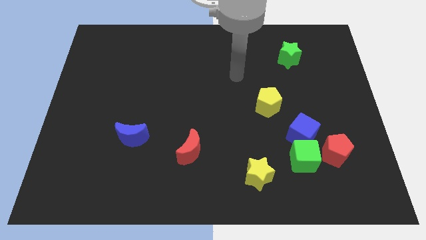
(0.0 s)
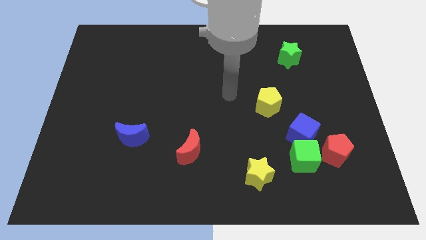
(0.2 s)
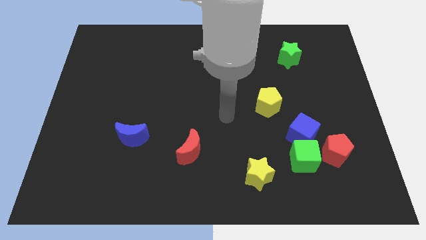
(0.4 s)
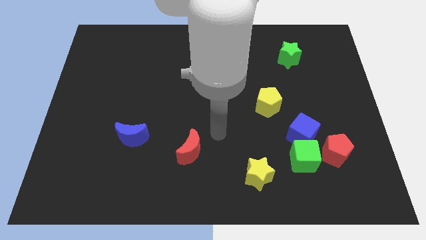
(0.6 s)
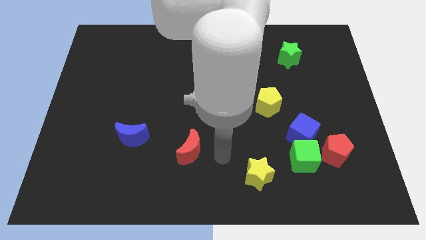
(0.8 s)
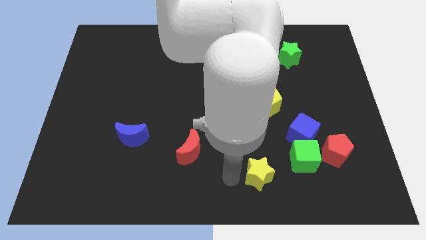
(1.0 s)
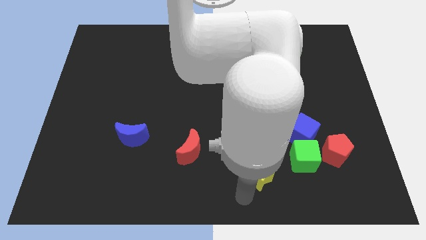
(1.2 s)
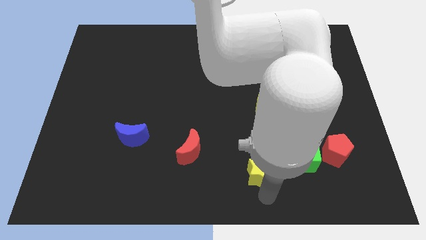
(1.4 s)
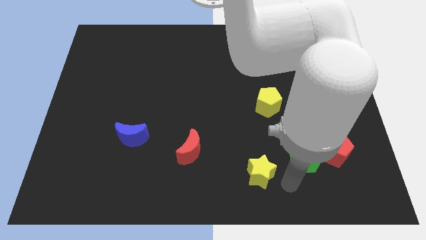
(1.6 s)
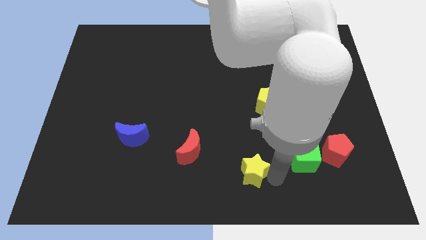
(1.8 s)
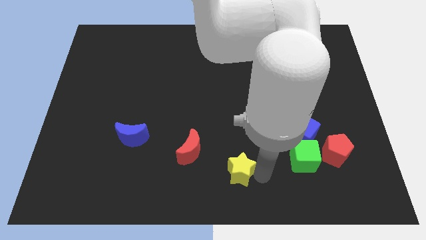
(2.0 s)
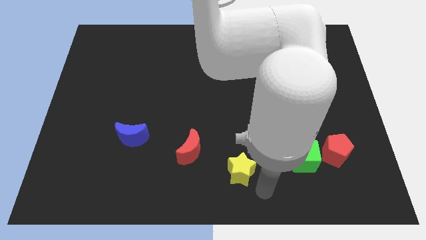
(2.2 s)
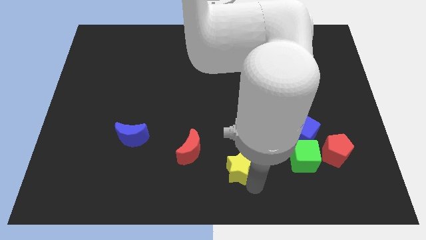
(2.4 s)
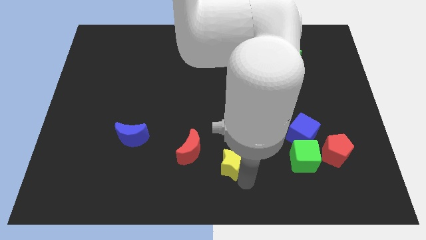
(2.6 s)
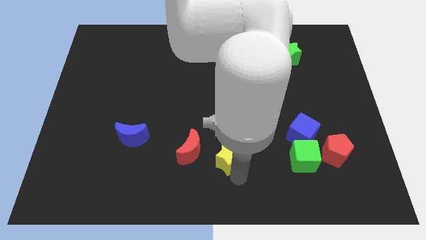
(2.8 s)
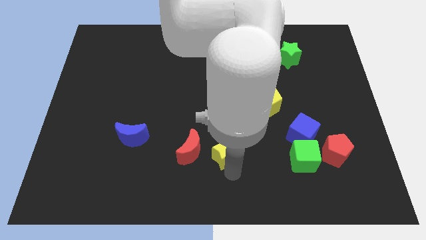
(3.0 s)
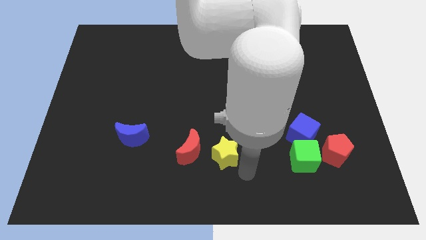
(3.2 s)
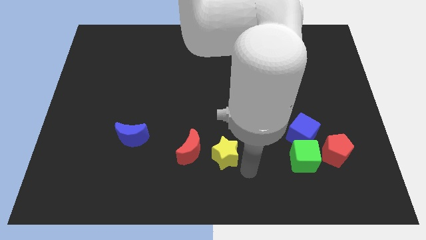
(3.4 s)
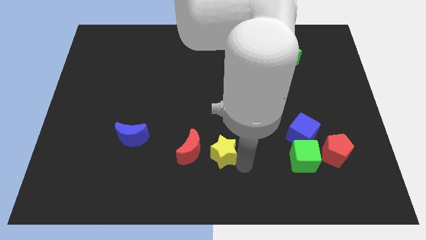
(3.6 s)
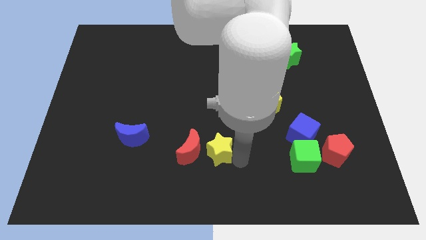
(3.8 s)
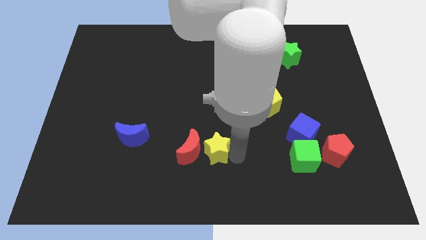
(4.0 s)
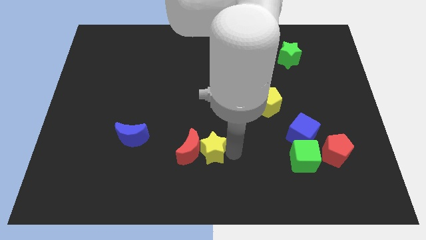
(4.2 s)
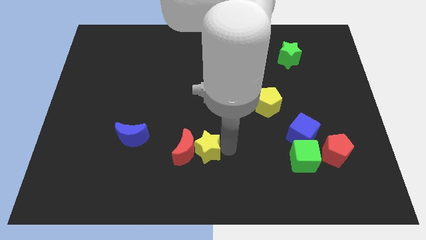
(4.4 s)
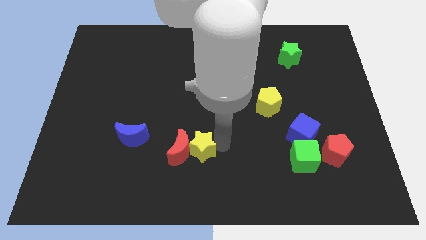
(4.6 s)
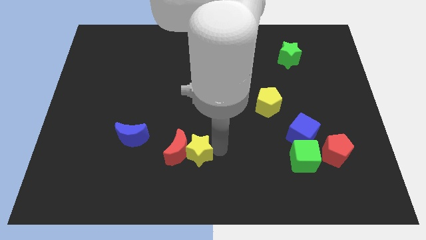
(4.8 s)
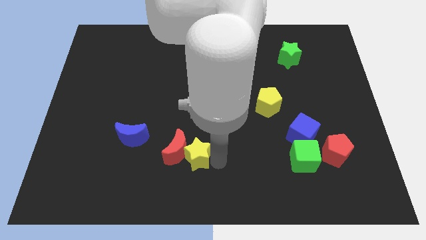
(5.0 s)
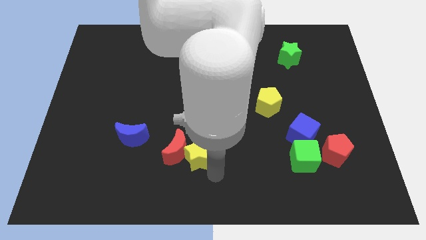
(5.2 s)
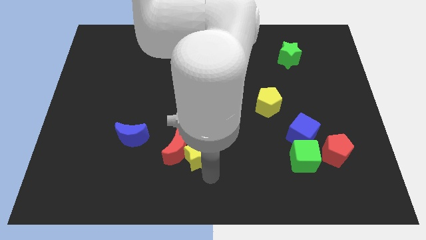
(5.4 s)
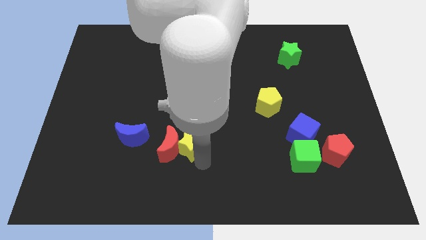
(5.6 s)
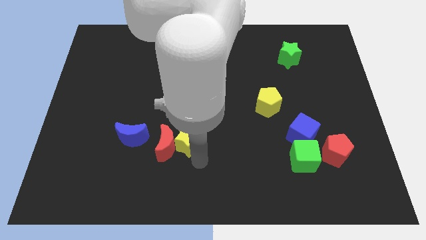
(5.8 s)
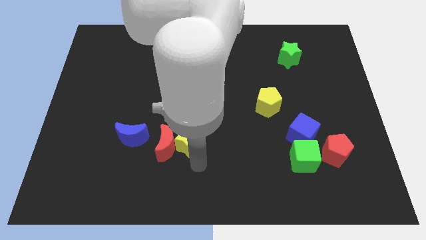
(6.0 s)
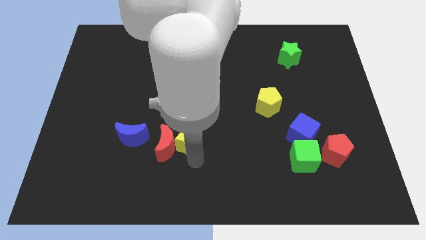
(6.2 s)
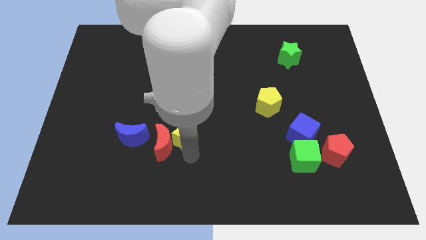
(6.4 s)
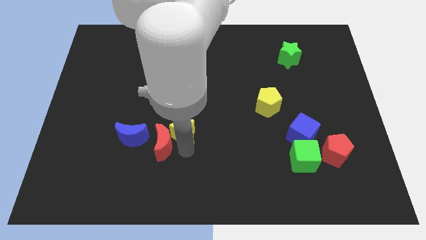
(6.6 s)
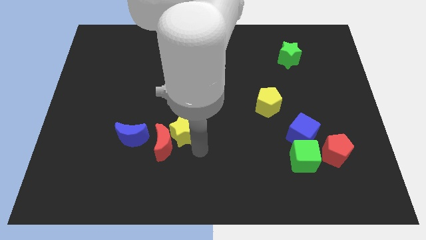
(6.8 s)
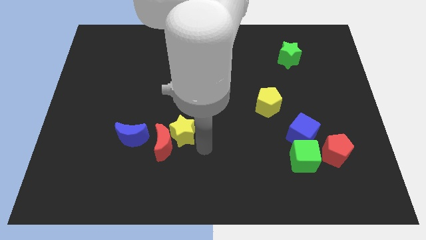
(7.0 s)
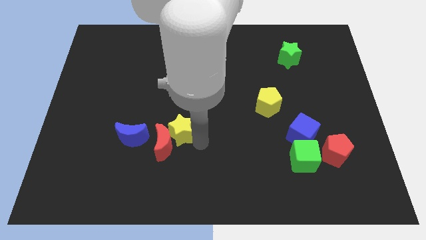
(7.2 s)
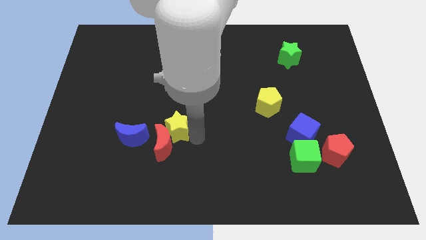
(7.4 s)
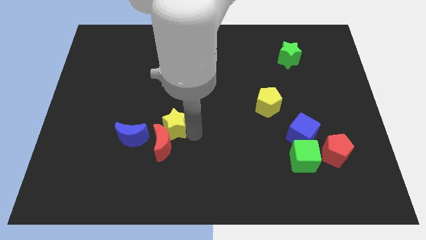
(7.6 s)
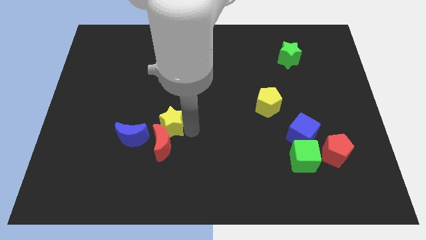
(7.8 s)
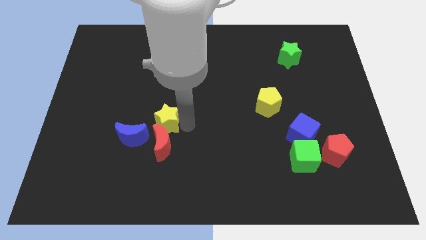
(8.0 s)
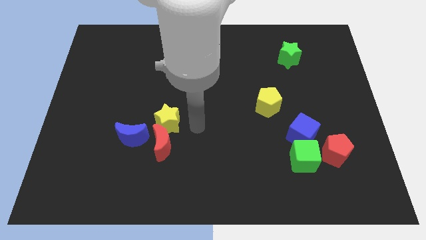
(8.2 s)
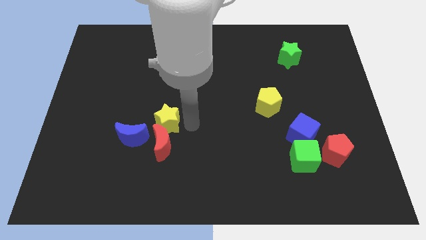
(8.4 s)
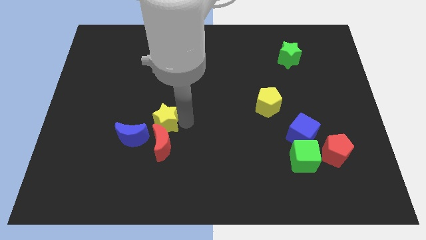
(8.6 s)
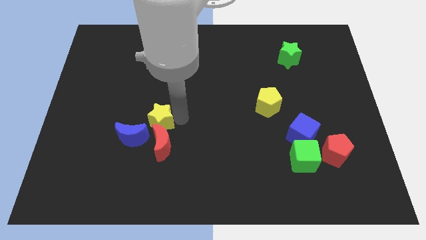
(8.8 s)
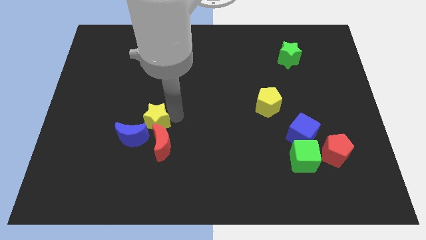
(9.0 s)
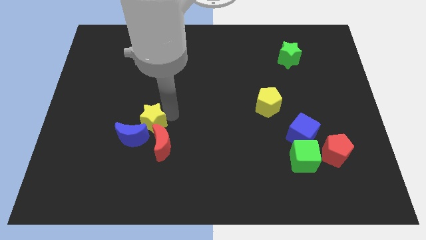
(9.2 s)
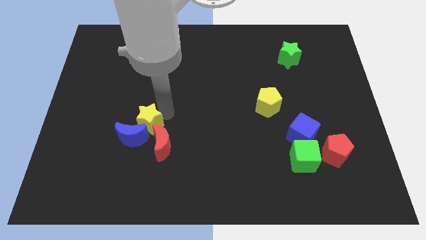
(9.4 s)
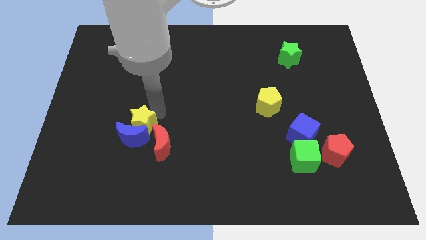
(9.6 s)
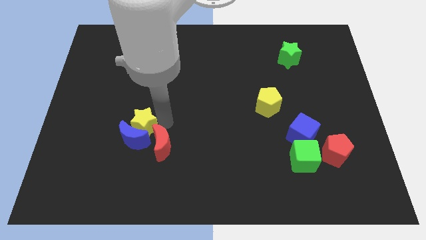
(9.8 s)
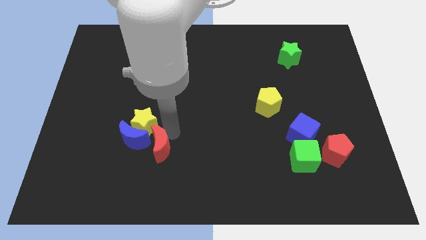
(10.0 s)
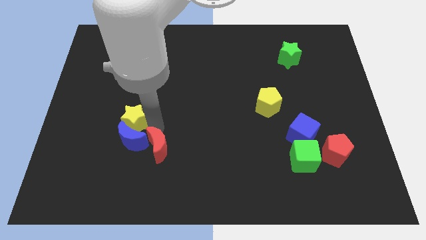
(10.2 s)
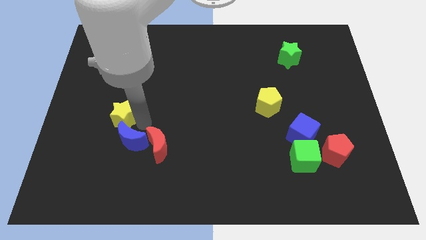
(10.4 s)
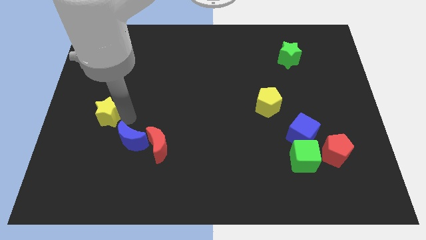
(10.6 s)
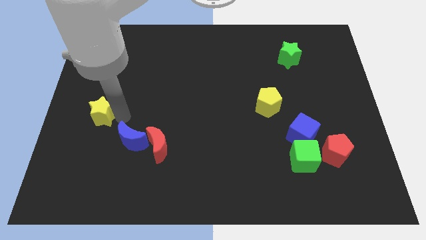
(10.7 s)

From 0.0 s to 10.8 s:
move the yellow star to the left side

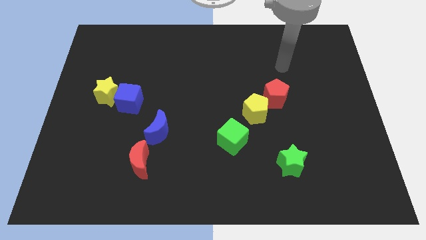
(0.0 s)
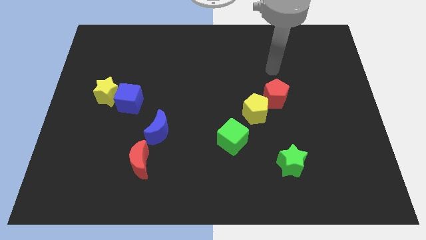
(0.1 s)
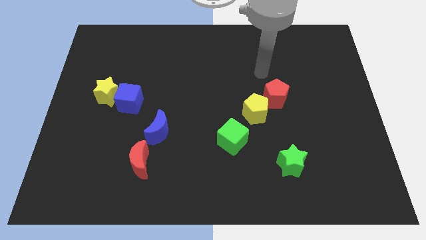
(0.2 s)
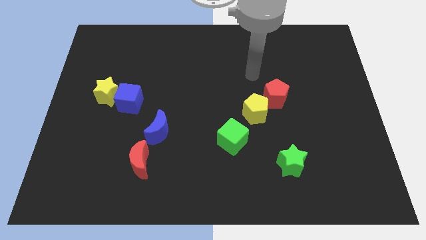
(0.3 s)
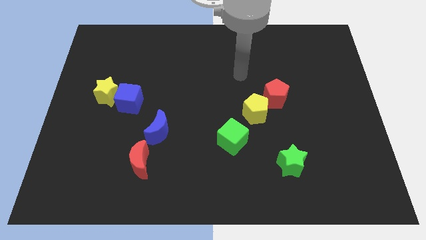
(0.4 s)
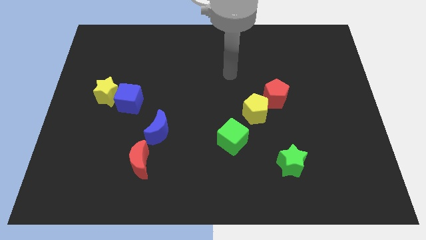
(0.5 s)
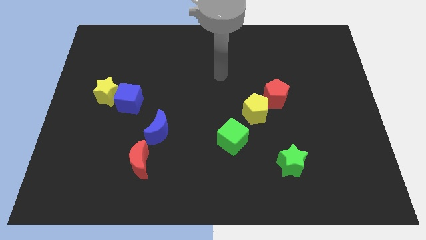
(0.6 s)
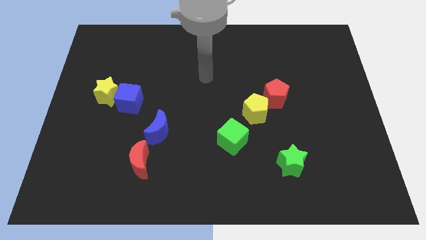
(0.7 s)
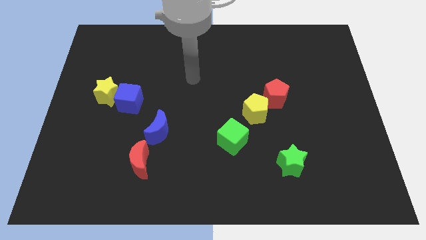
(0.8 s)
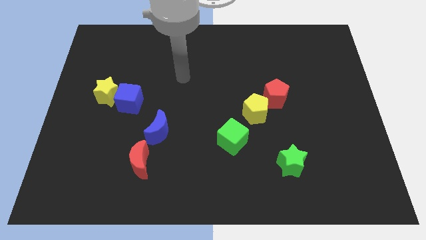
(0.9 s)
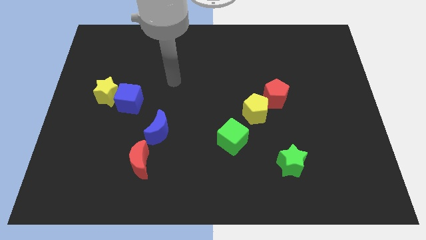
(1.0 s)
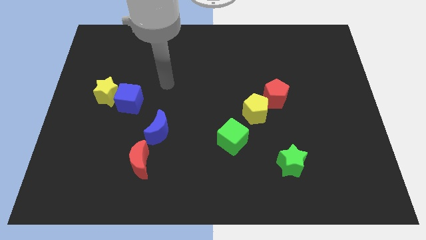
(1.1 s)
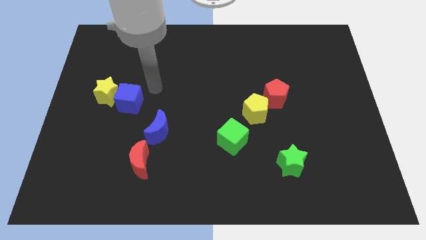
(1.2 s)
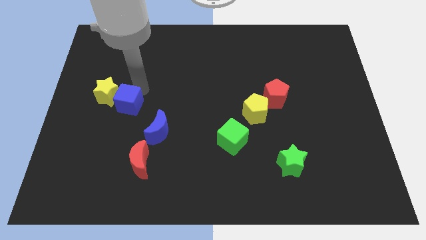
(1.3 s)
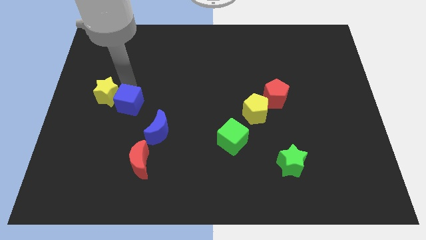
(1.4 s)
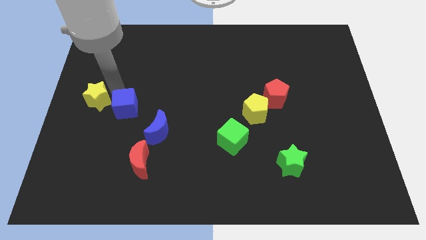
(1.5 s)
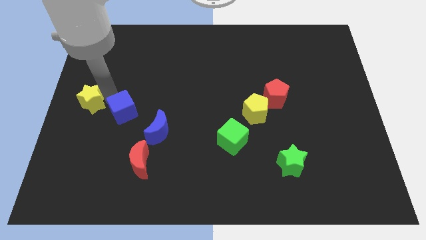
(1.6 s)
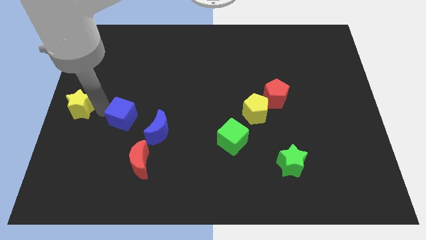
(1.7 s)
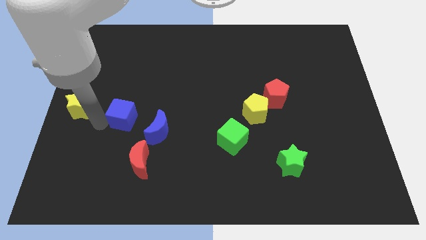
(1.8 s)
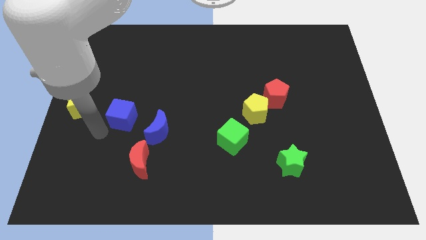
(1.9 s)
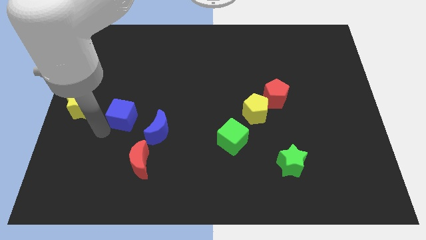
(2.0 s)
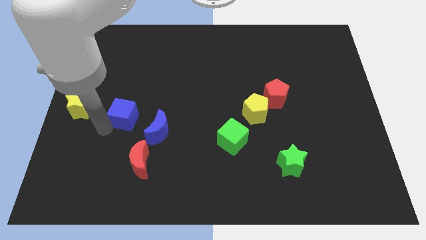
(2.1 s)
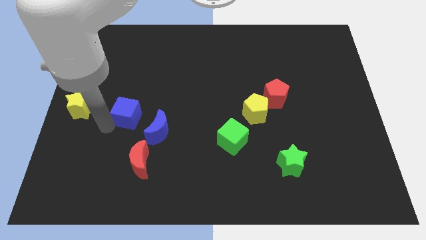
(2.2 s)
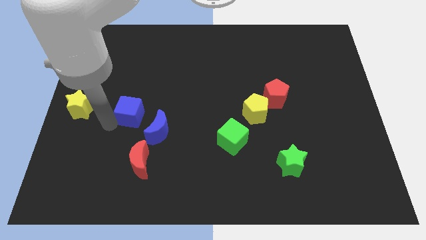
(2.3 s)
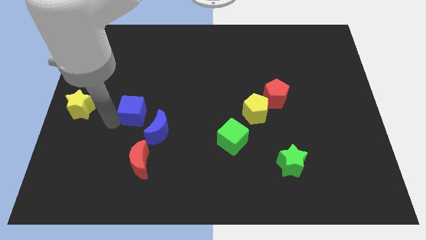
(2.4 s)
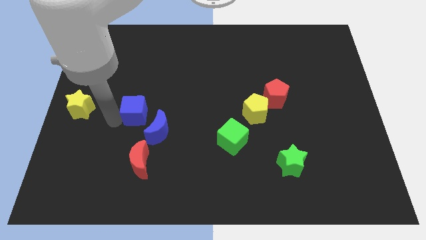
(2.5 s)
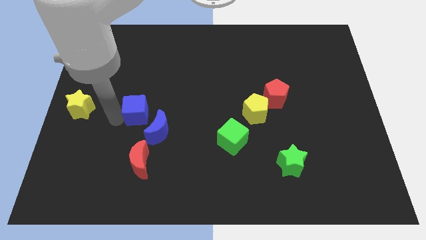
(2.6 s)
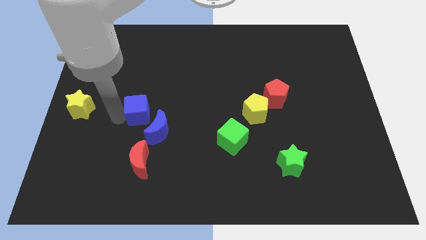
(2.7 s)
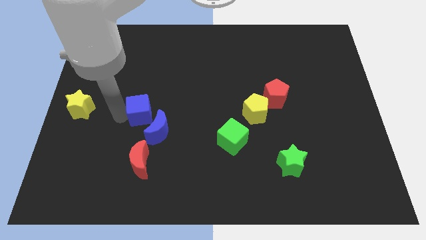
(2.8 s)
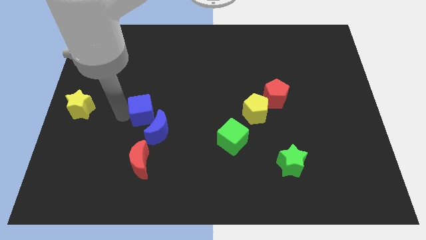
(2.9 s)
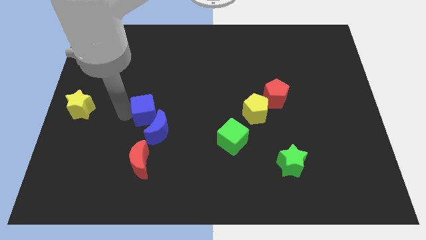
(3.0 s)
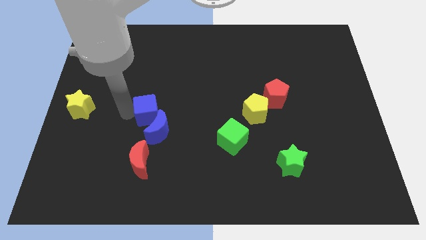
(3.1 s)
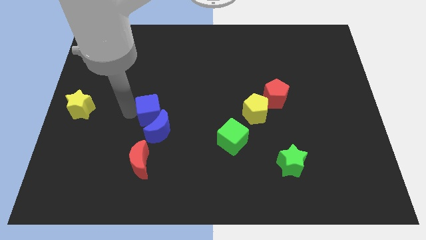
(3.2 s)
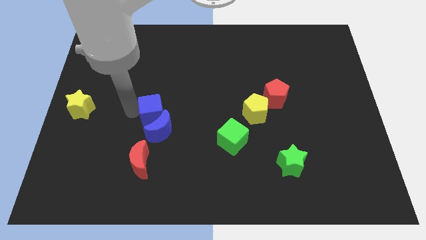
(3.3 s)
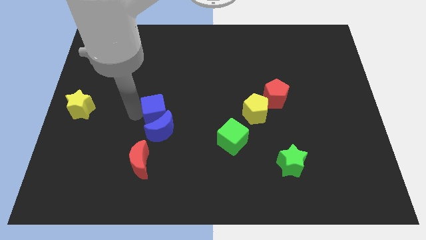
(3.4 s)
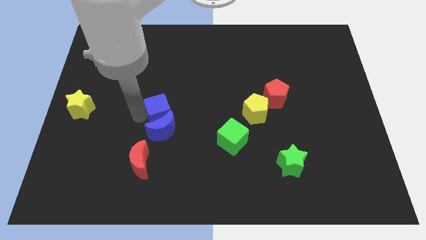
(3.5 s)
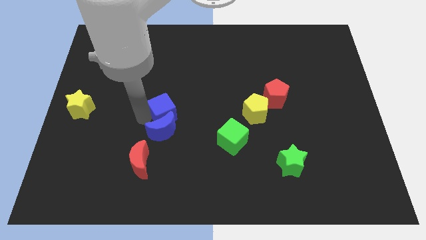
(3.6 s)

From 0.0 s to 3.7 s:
push the blue cube to the center of the board
